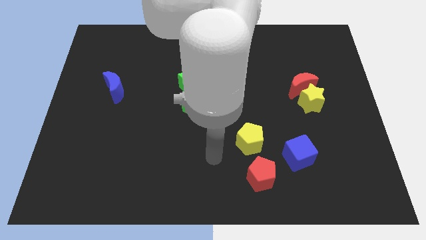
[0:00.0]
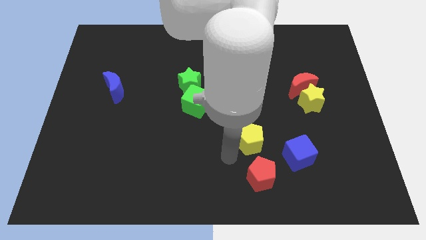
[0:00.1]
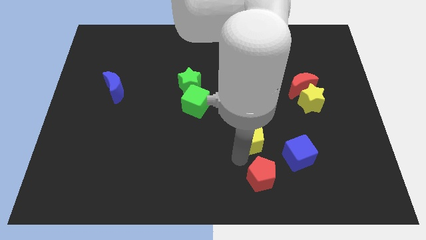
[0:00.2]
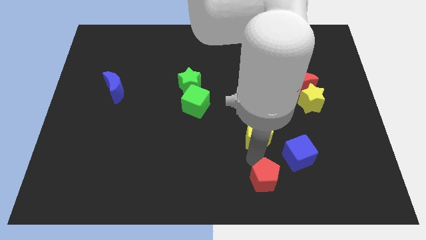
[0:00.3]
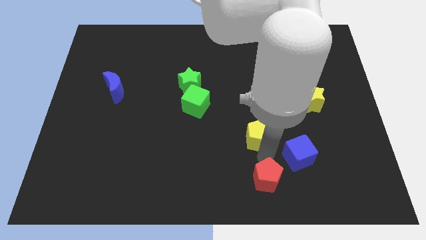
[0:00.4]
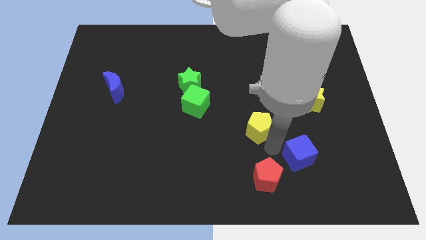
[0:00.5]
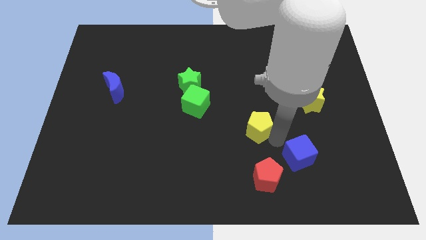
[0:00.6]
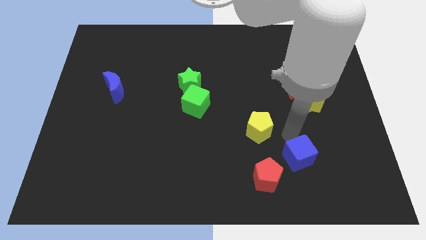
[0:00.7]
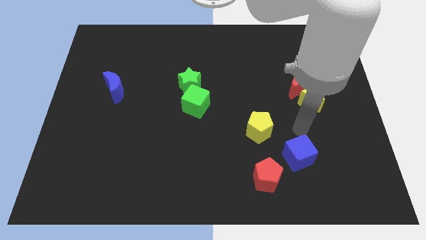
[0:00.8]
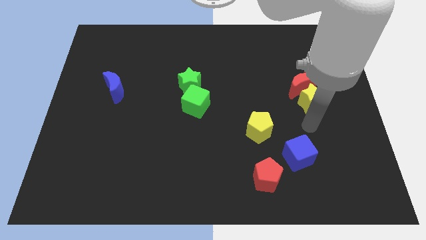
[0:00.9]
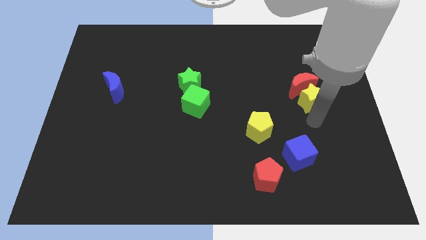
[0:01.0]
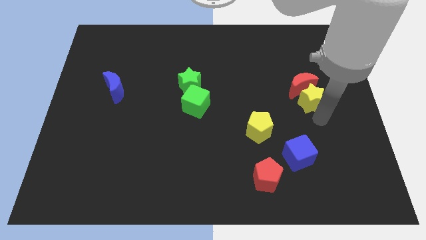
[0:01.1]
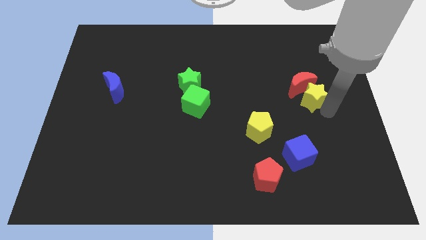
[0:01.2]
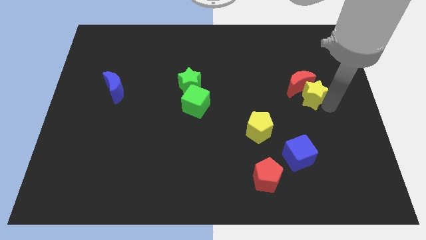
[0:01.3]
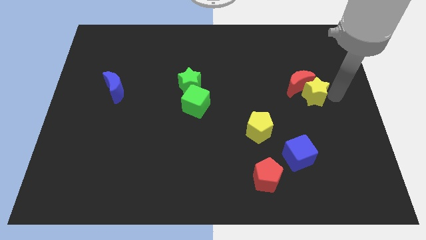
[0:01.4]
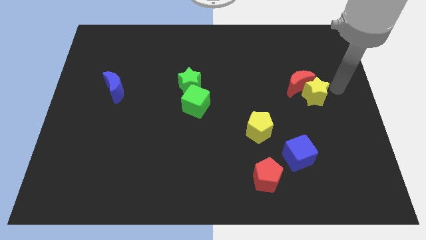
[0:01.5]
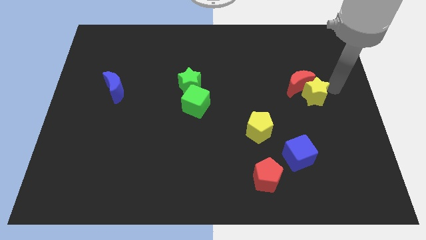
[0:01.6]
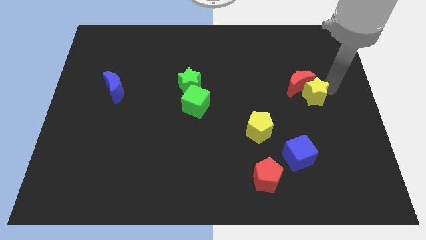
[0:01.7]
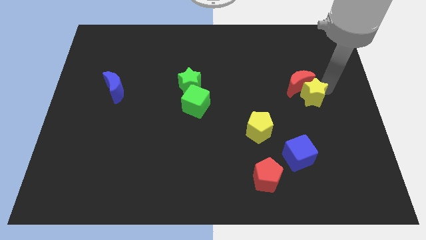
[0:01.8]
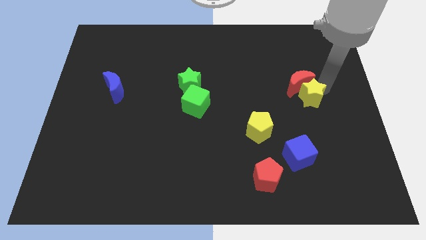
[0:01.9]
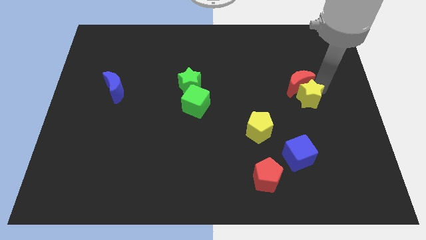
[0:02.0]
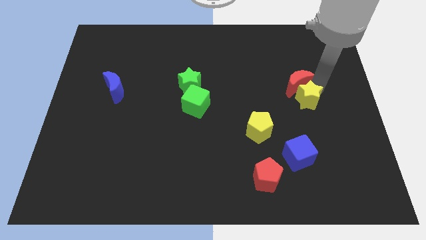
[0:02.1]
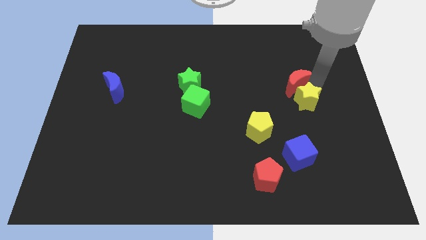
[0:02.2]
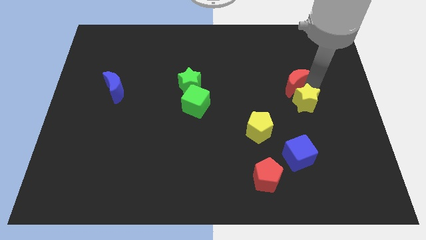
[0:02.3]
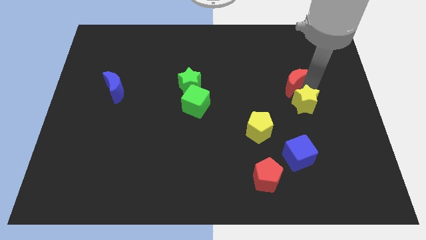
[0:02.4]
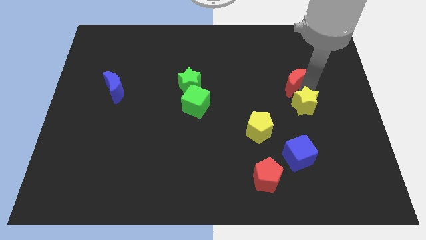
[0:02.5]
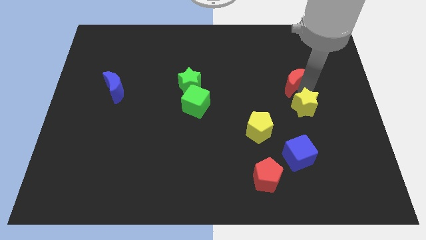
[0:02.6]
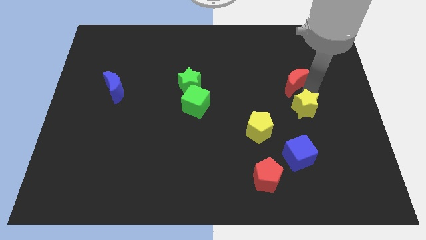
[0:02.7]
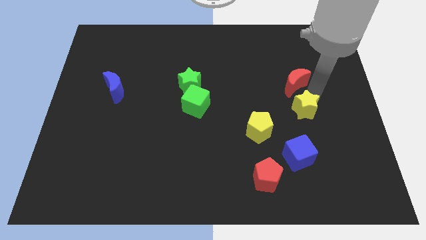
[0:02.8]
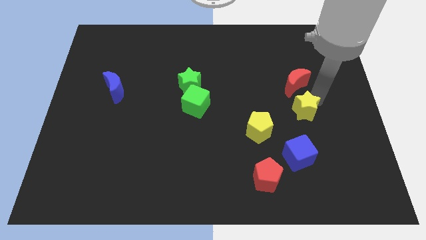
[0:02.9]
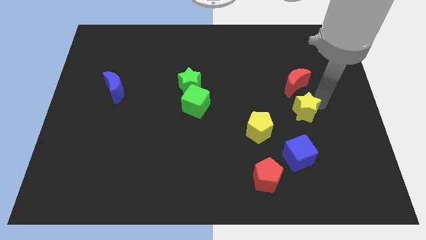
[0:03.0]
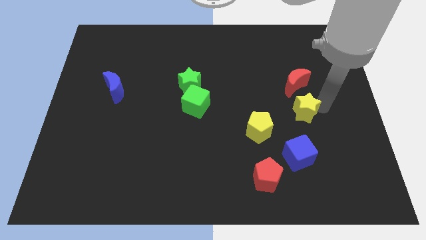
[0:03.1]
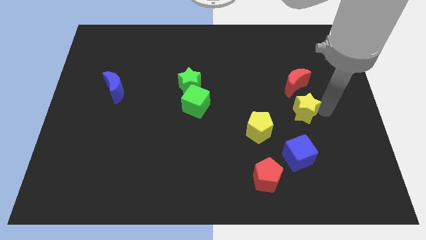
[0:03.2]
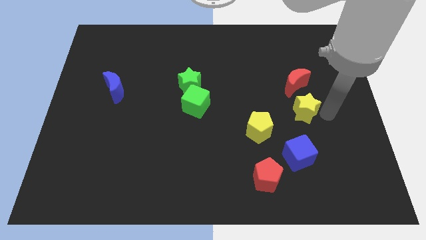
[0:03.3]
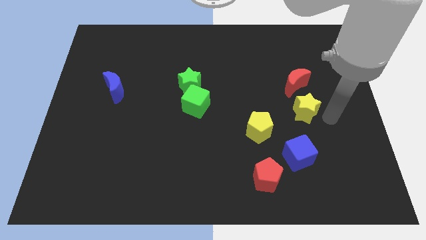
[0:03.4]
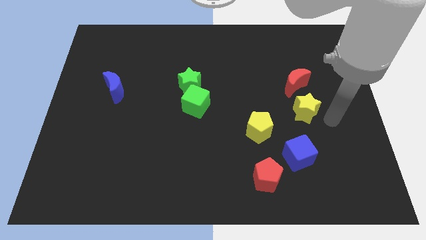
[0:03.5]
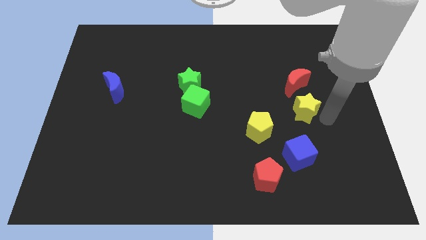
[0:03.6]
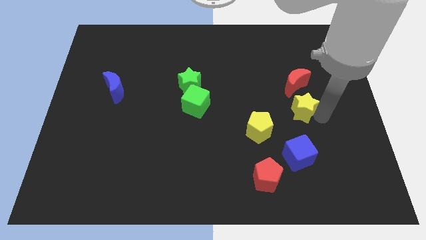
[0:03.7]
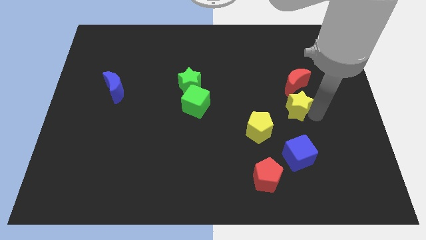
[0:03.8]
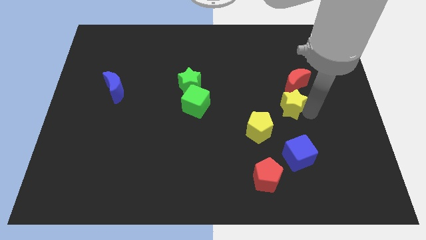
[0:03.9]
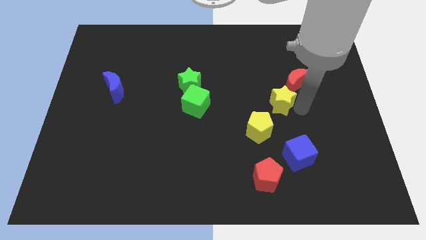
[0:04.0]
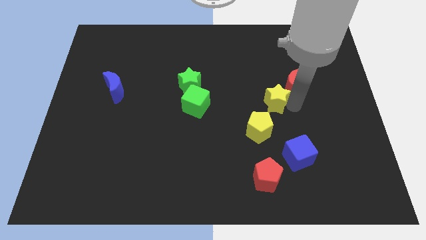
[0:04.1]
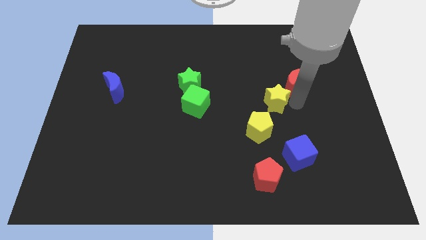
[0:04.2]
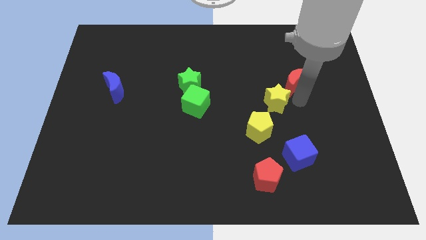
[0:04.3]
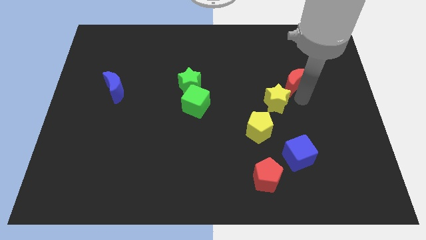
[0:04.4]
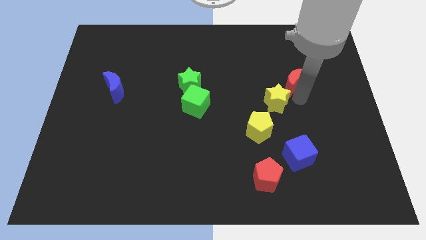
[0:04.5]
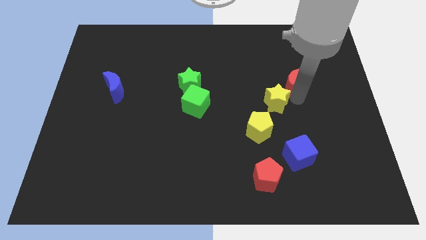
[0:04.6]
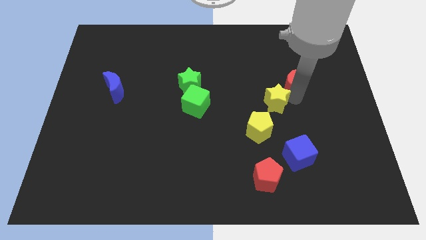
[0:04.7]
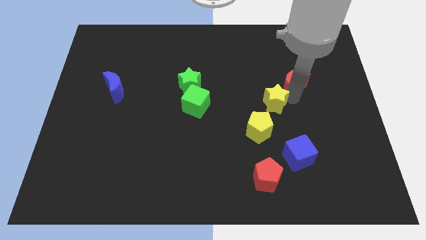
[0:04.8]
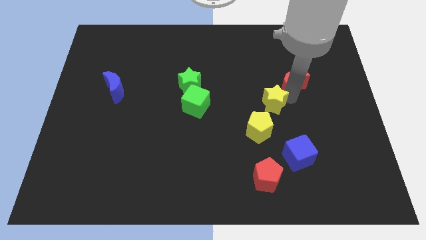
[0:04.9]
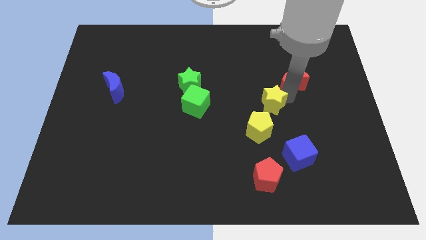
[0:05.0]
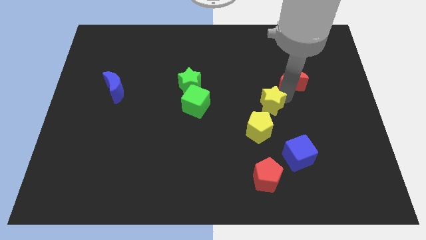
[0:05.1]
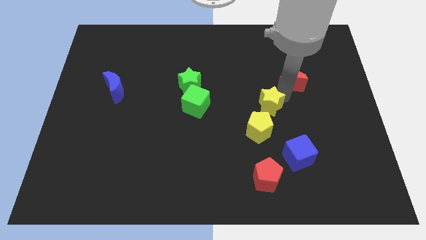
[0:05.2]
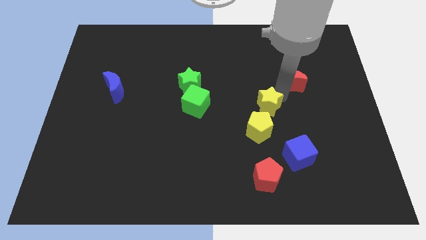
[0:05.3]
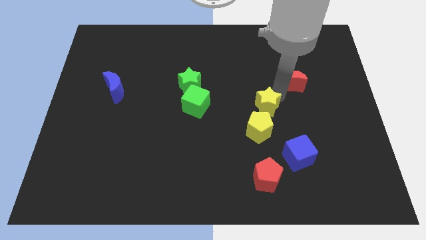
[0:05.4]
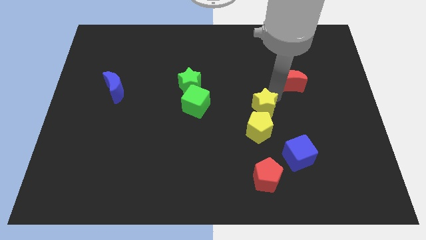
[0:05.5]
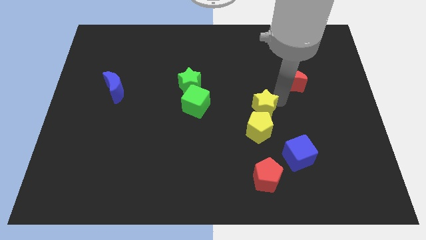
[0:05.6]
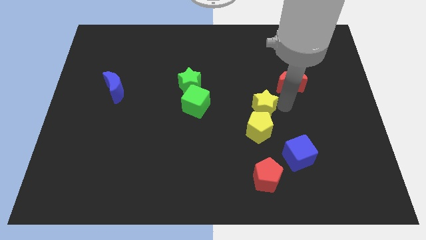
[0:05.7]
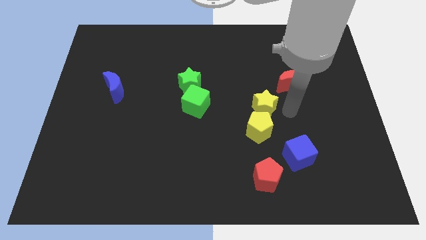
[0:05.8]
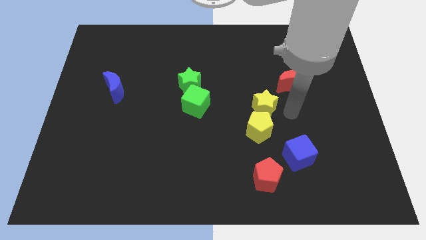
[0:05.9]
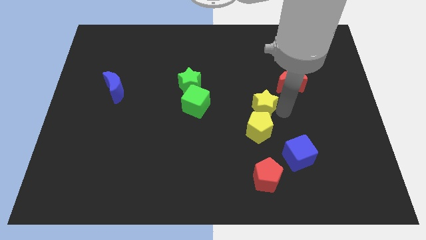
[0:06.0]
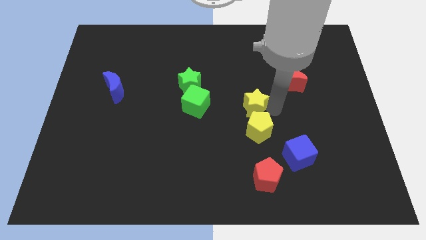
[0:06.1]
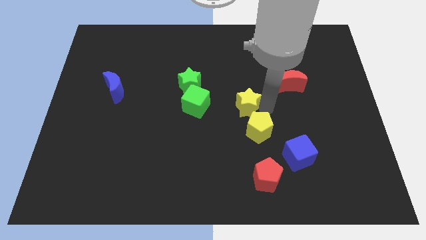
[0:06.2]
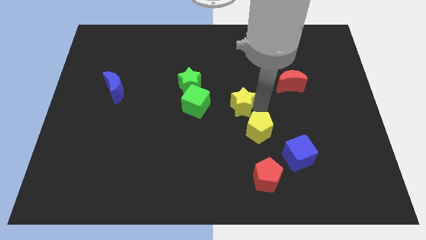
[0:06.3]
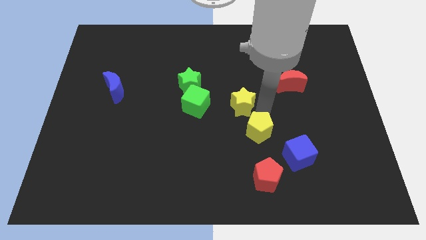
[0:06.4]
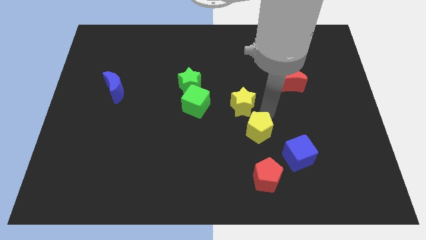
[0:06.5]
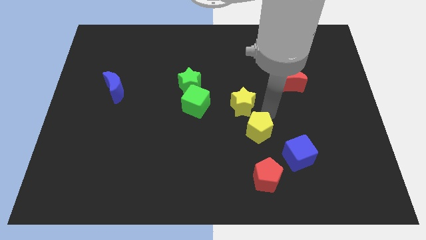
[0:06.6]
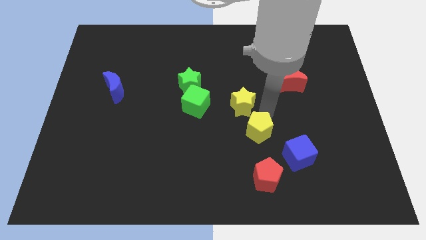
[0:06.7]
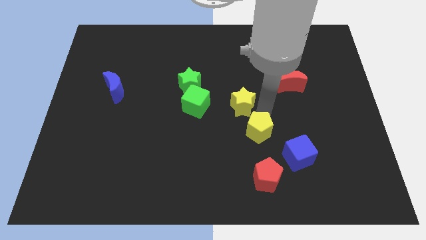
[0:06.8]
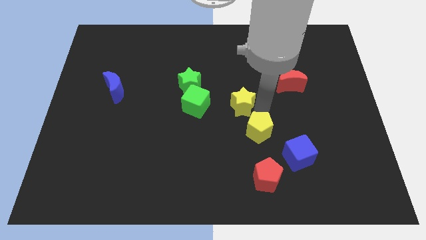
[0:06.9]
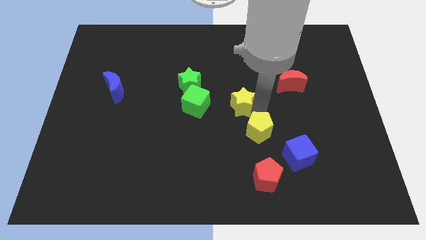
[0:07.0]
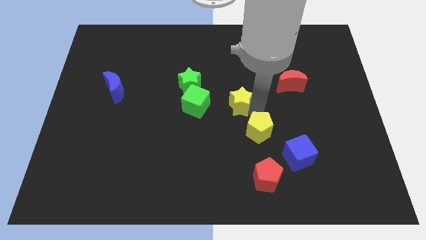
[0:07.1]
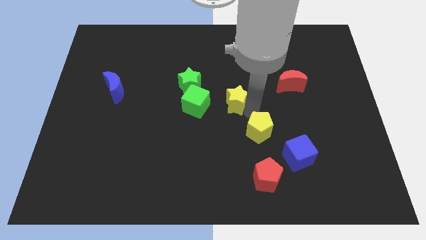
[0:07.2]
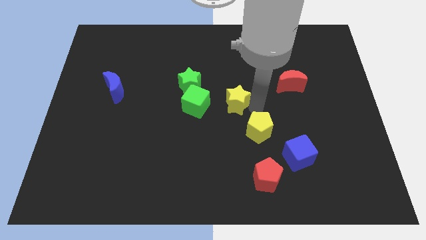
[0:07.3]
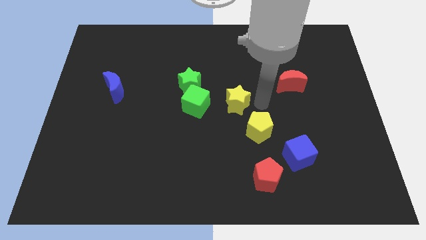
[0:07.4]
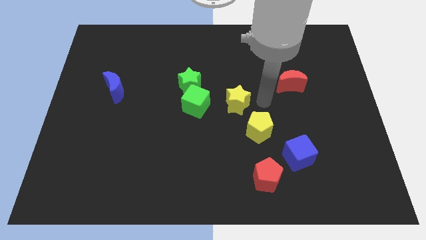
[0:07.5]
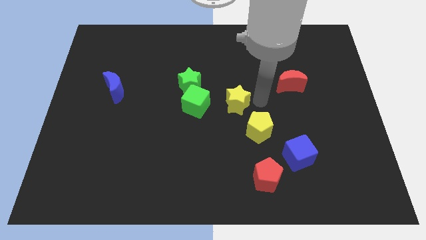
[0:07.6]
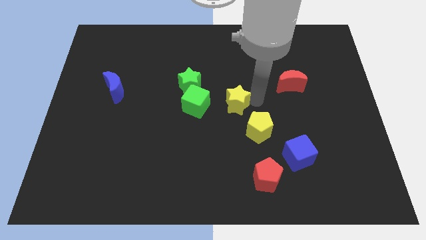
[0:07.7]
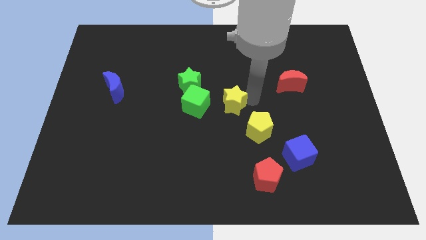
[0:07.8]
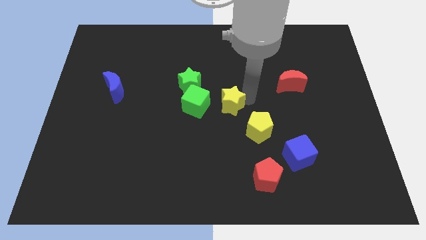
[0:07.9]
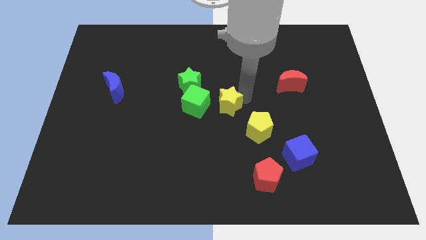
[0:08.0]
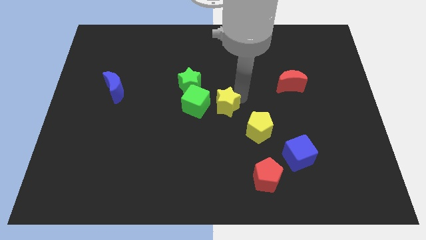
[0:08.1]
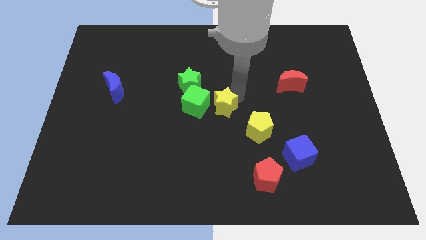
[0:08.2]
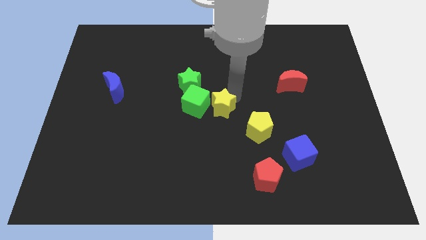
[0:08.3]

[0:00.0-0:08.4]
push the yellow star next to the green cube
